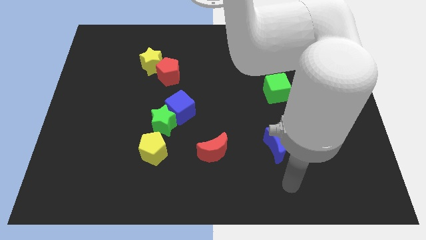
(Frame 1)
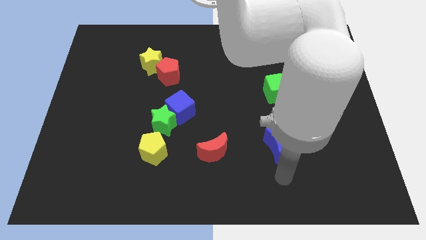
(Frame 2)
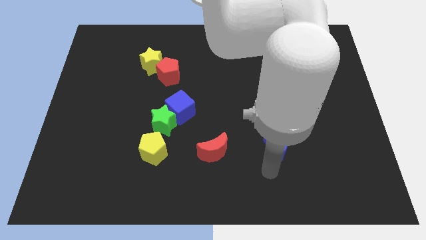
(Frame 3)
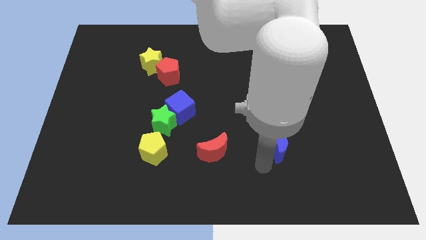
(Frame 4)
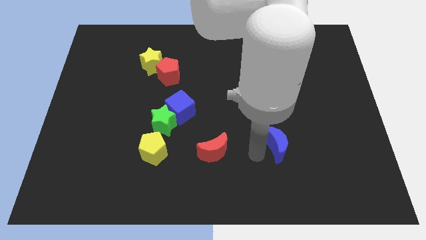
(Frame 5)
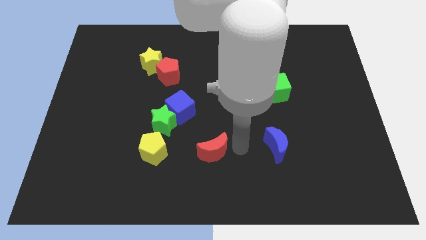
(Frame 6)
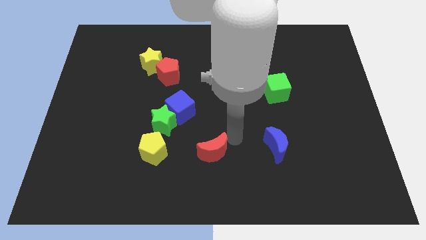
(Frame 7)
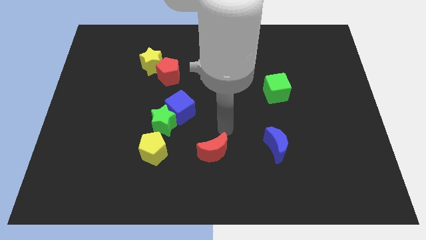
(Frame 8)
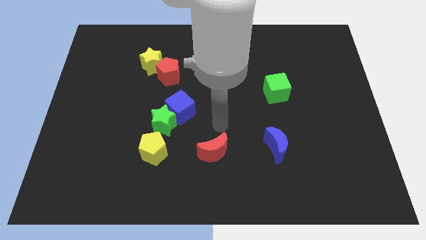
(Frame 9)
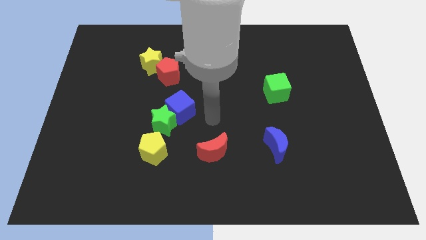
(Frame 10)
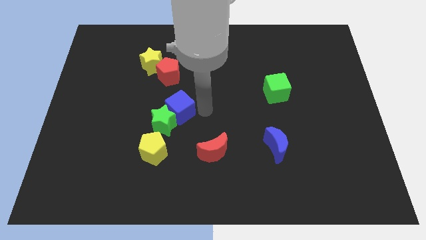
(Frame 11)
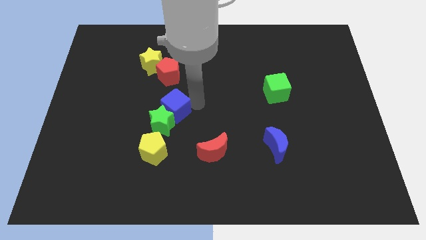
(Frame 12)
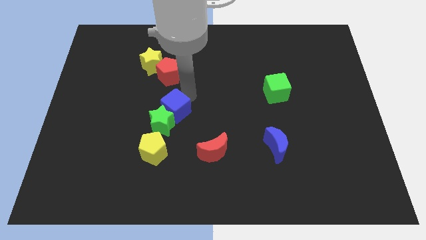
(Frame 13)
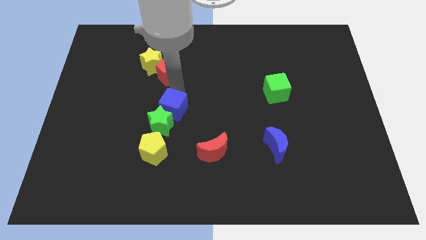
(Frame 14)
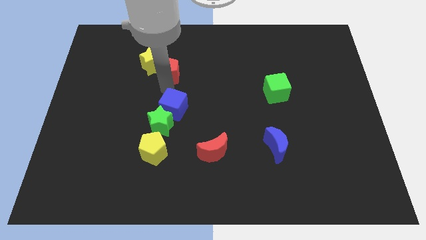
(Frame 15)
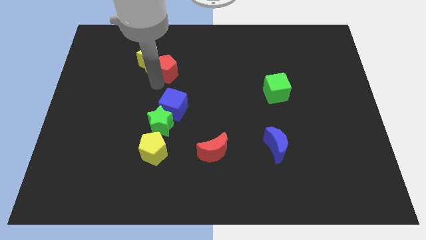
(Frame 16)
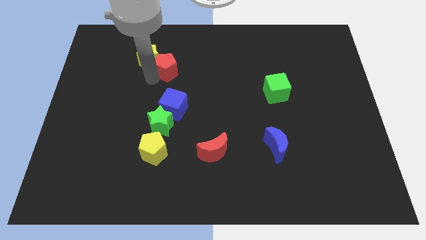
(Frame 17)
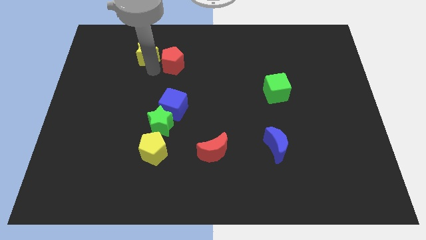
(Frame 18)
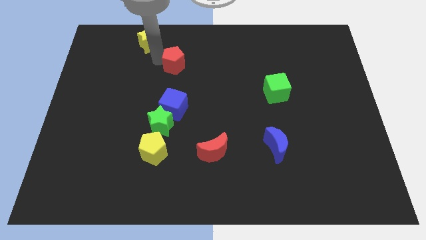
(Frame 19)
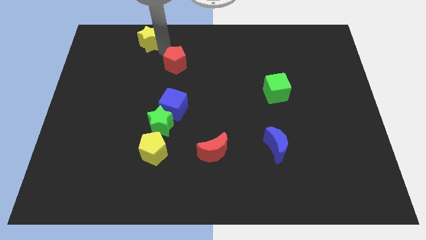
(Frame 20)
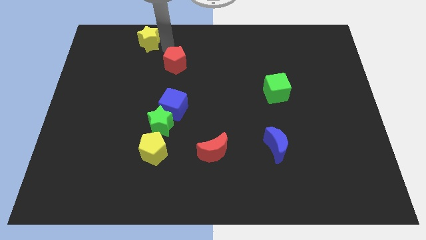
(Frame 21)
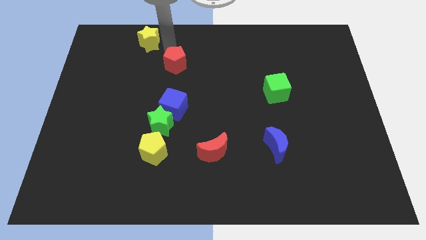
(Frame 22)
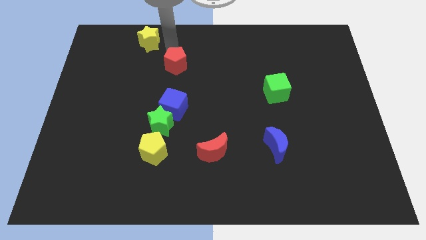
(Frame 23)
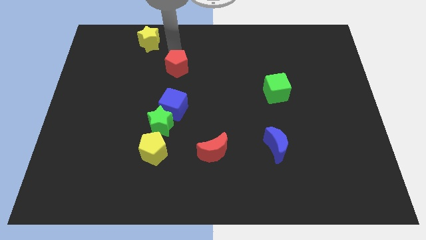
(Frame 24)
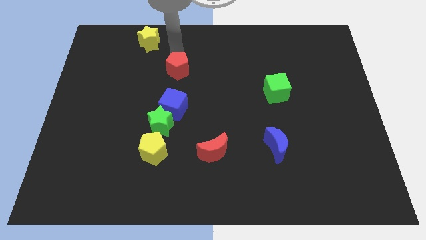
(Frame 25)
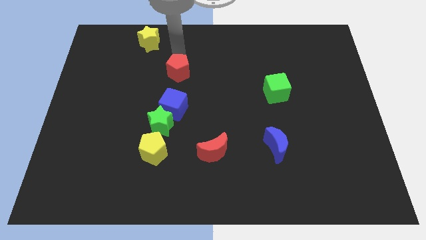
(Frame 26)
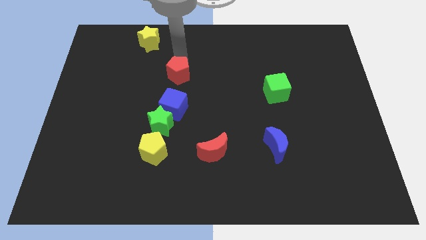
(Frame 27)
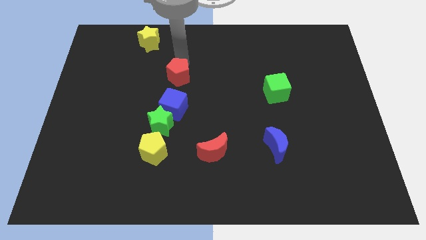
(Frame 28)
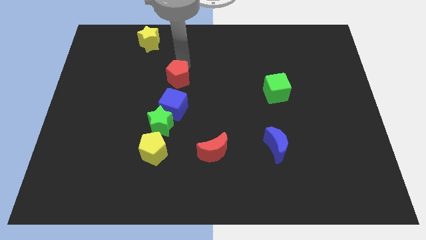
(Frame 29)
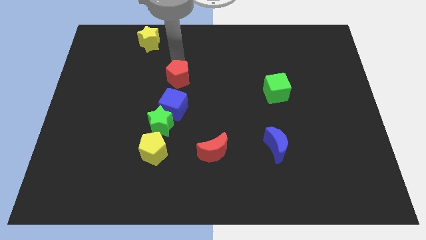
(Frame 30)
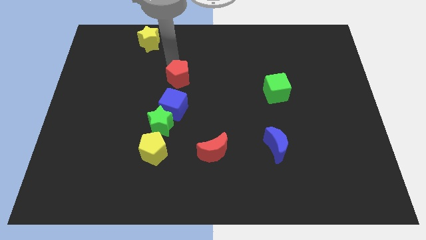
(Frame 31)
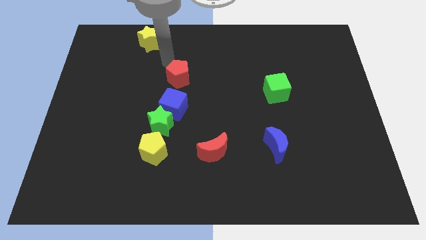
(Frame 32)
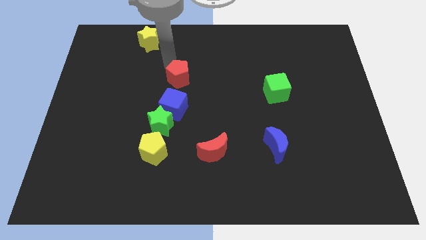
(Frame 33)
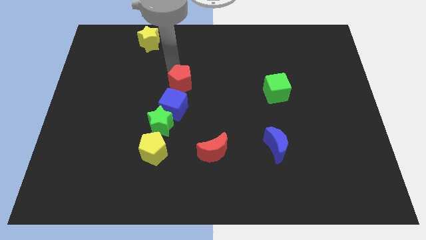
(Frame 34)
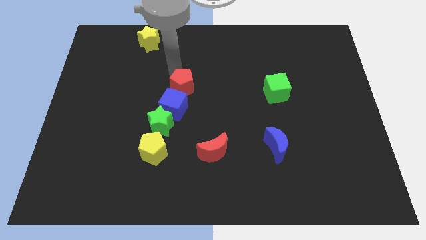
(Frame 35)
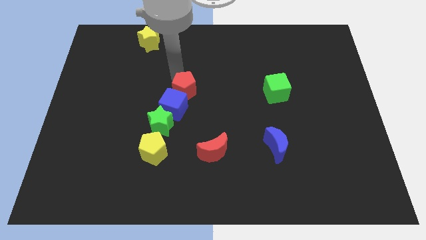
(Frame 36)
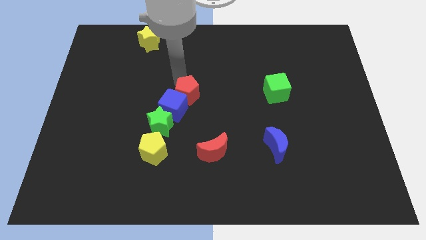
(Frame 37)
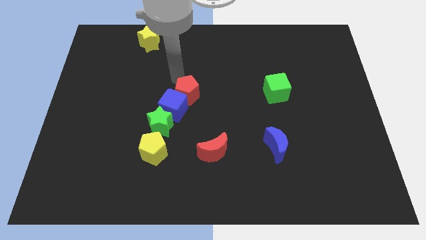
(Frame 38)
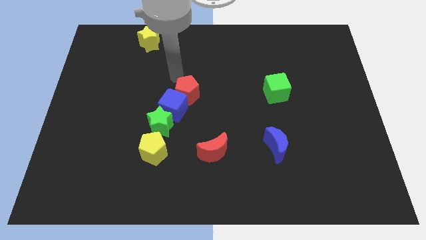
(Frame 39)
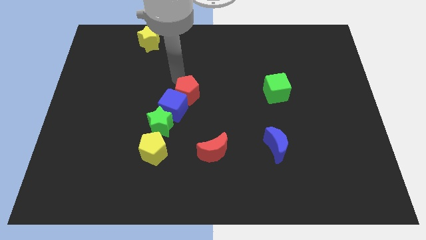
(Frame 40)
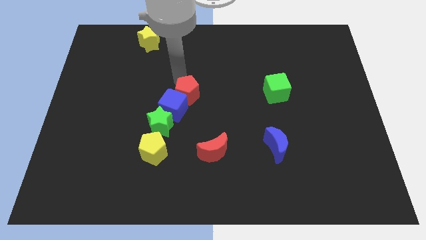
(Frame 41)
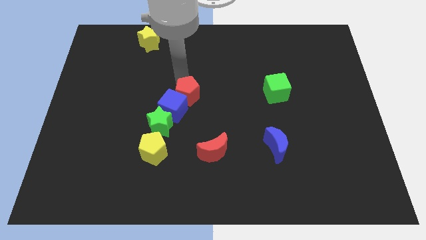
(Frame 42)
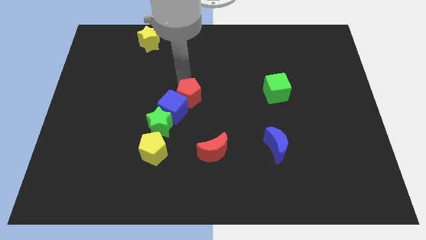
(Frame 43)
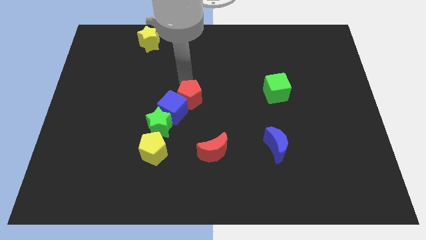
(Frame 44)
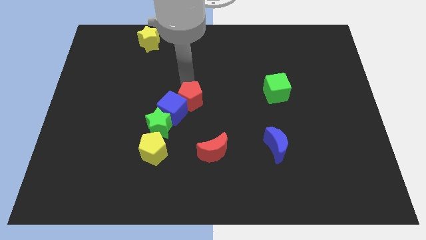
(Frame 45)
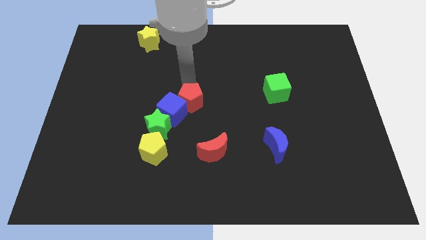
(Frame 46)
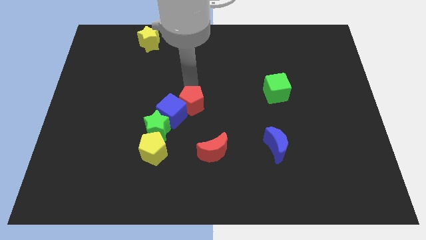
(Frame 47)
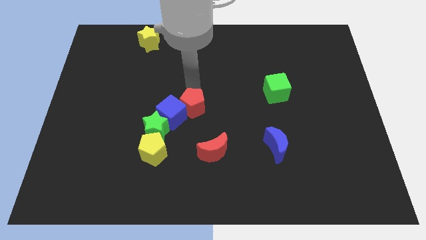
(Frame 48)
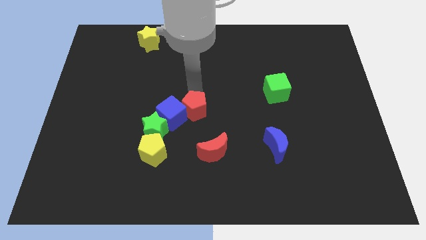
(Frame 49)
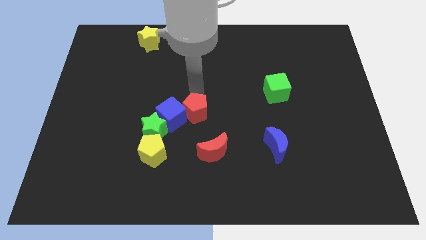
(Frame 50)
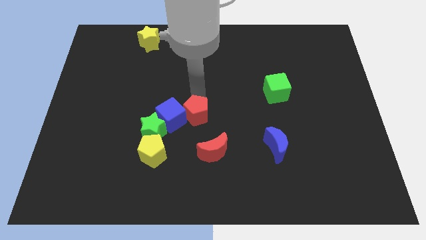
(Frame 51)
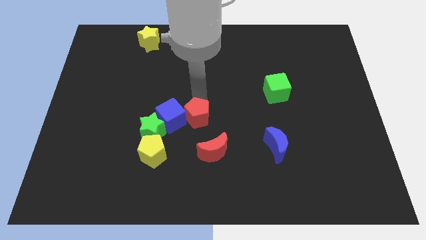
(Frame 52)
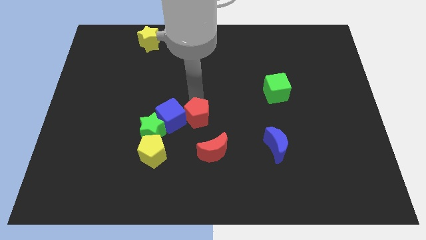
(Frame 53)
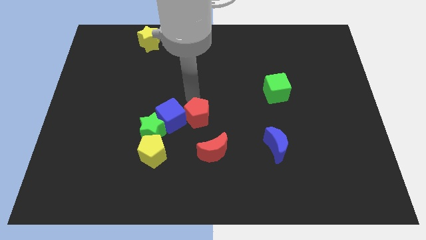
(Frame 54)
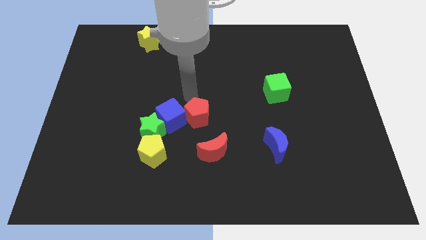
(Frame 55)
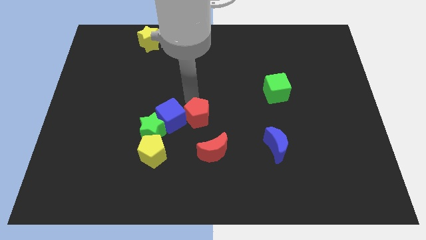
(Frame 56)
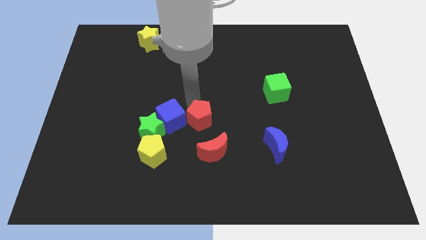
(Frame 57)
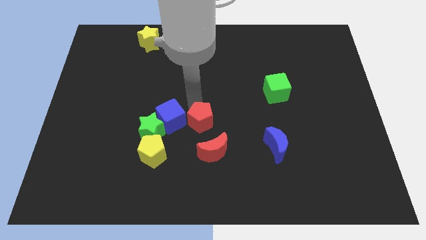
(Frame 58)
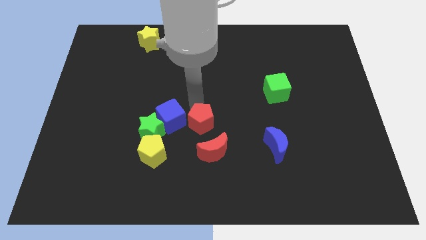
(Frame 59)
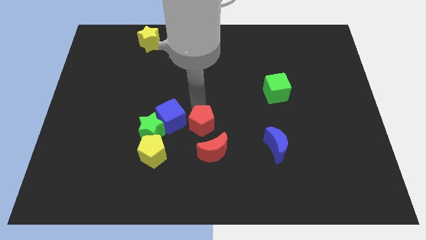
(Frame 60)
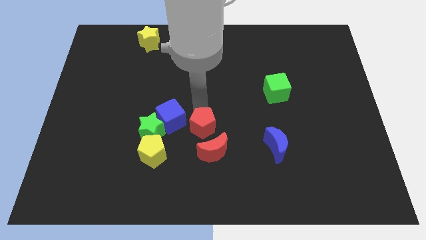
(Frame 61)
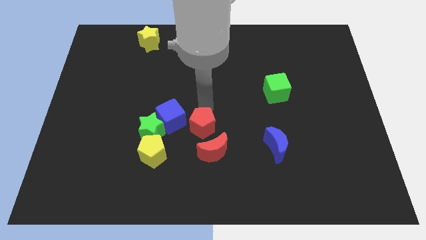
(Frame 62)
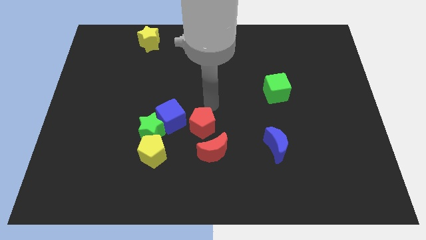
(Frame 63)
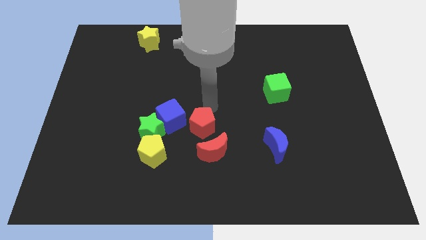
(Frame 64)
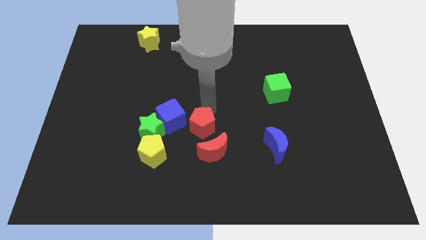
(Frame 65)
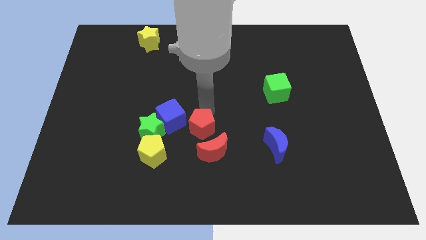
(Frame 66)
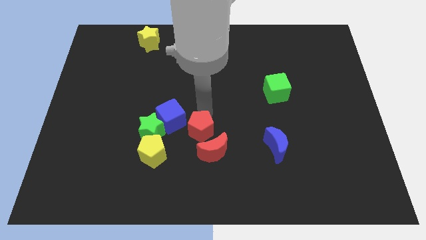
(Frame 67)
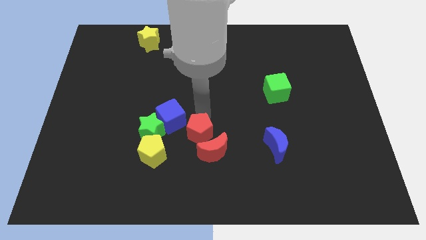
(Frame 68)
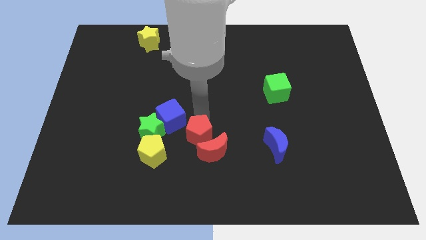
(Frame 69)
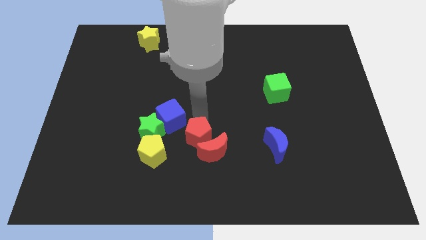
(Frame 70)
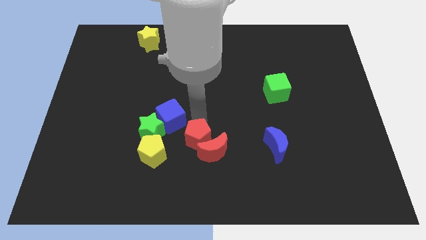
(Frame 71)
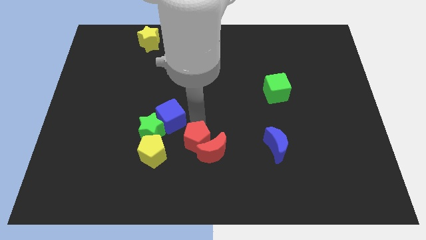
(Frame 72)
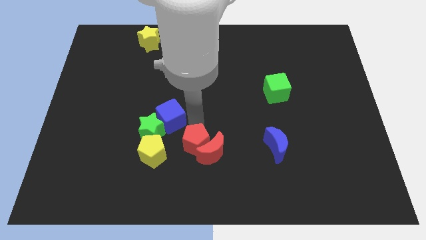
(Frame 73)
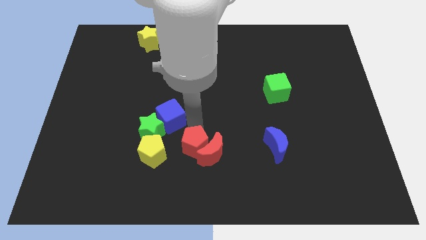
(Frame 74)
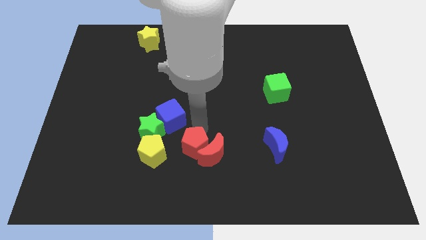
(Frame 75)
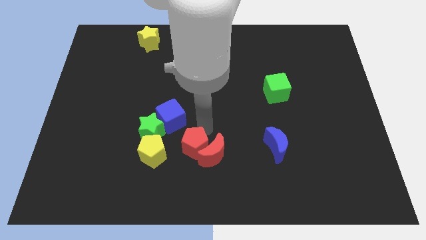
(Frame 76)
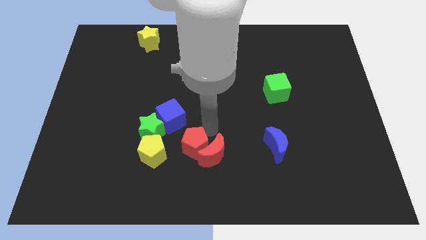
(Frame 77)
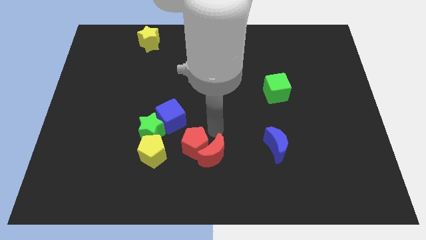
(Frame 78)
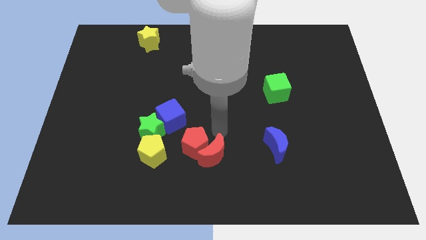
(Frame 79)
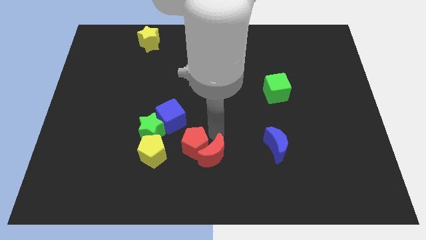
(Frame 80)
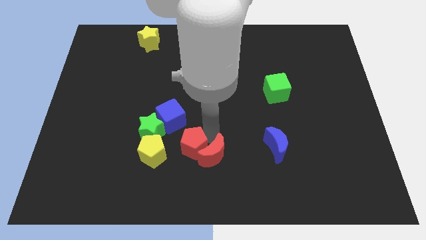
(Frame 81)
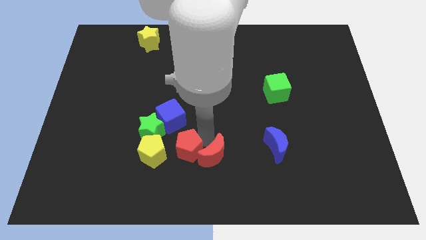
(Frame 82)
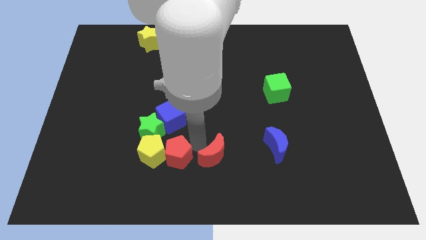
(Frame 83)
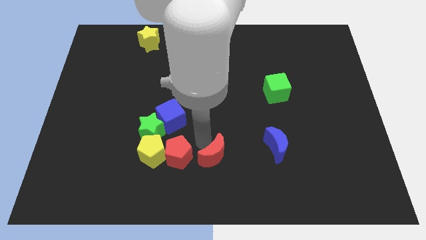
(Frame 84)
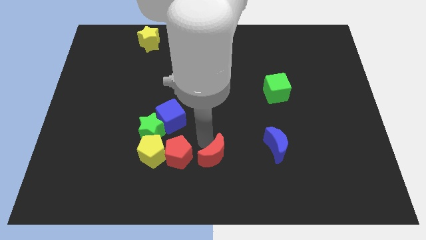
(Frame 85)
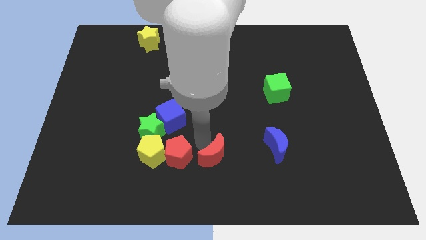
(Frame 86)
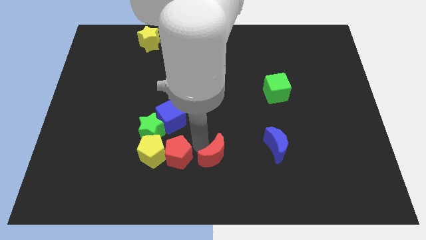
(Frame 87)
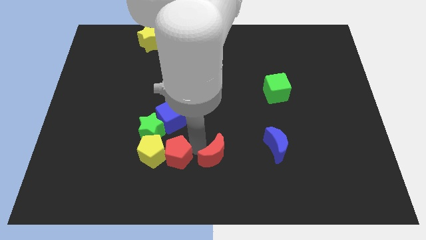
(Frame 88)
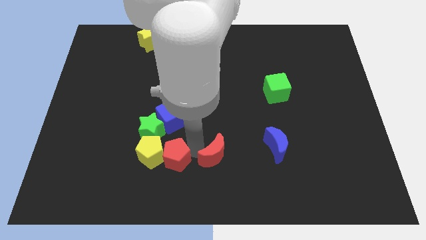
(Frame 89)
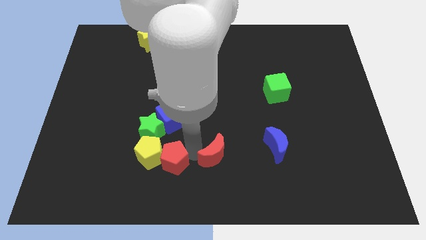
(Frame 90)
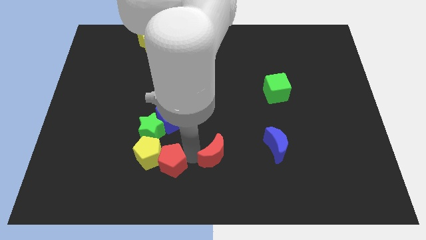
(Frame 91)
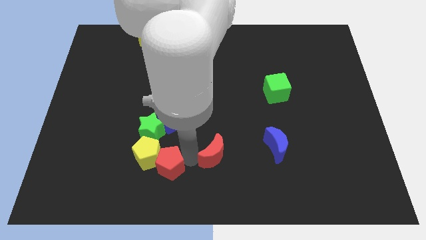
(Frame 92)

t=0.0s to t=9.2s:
put the red pentagon below the green star
